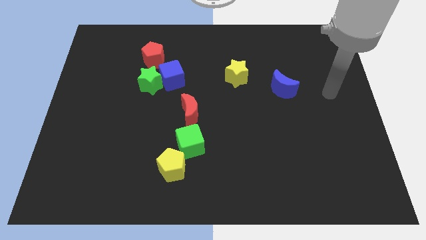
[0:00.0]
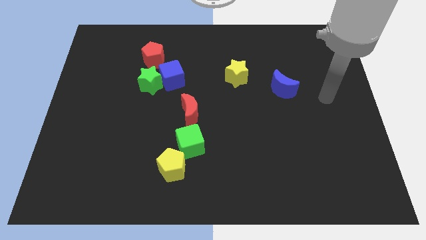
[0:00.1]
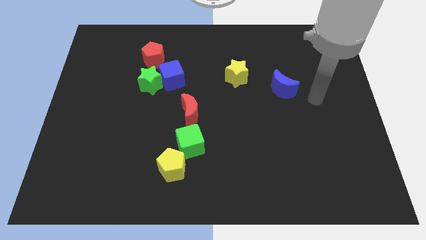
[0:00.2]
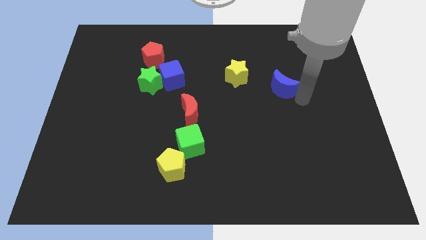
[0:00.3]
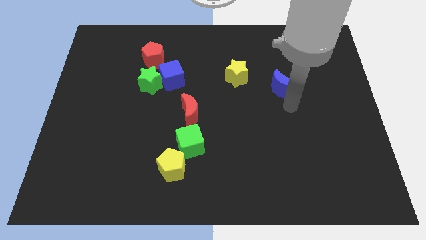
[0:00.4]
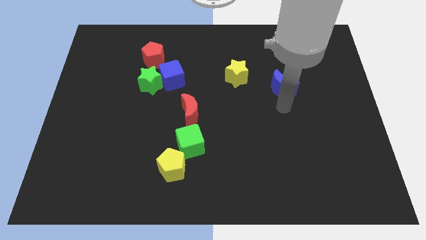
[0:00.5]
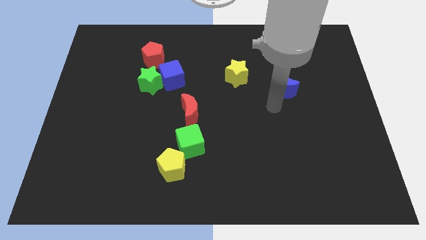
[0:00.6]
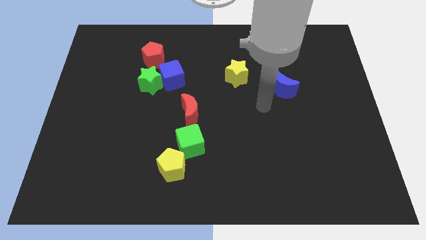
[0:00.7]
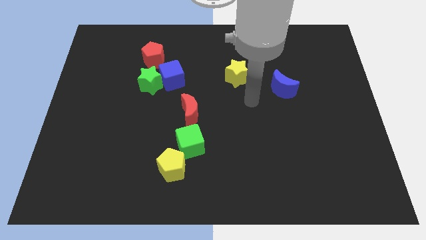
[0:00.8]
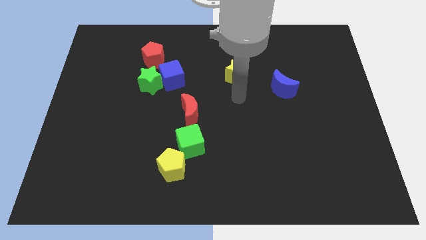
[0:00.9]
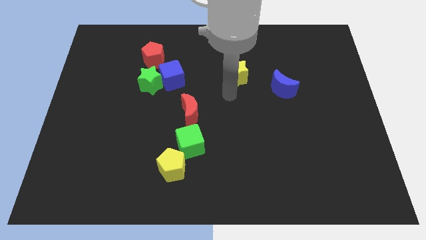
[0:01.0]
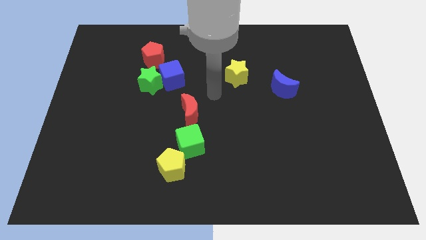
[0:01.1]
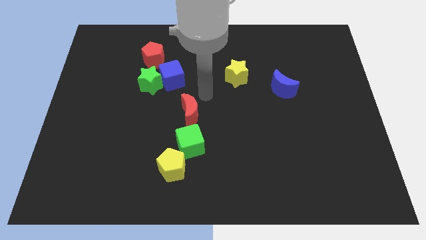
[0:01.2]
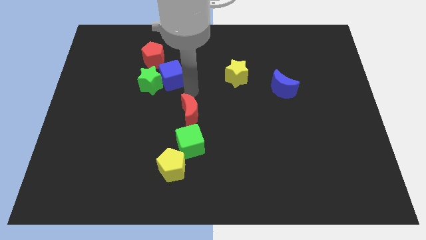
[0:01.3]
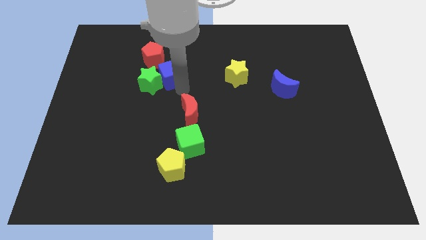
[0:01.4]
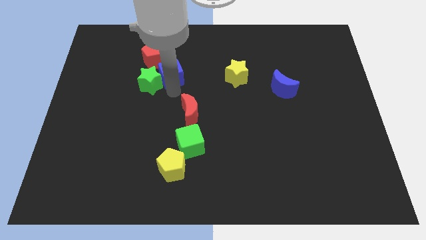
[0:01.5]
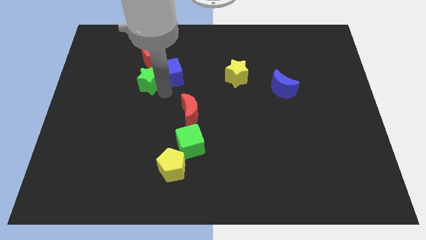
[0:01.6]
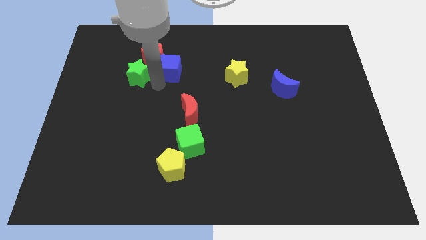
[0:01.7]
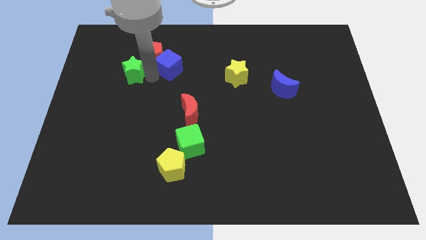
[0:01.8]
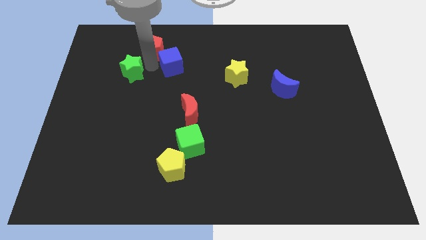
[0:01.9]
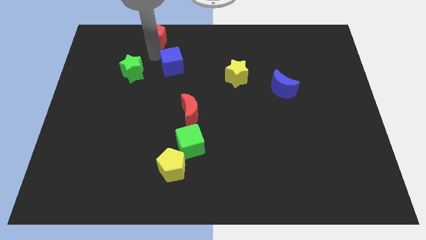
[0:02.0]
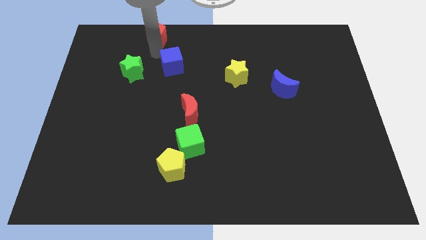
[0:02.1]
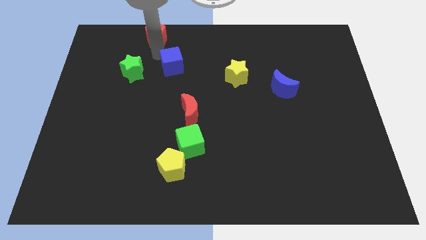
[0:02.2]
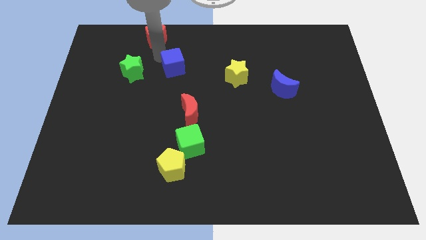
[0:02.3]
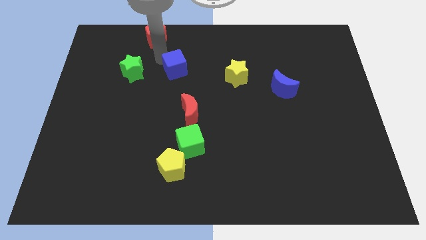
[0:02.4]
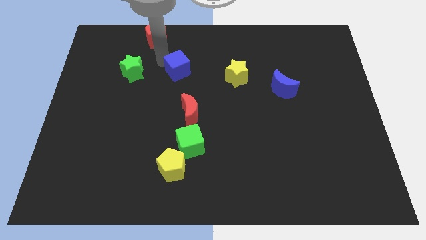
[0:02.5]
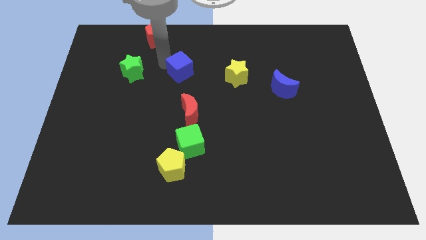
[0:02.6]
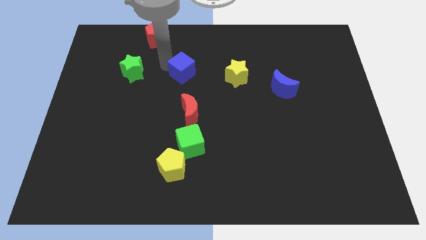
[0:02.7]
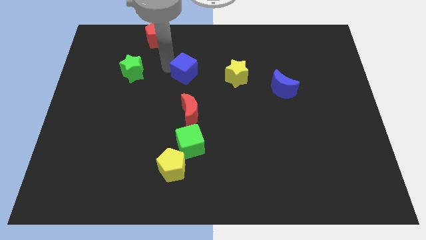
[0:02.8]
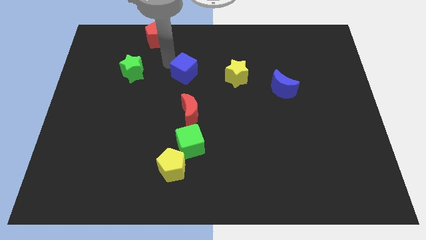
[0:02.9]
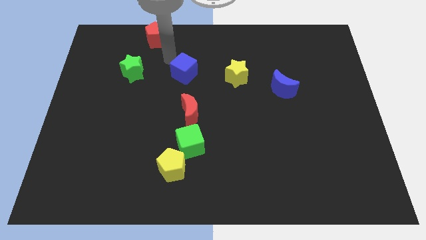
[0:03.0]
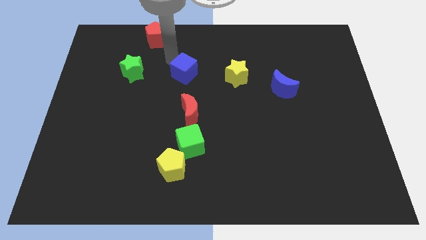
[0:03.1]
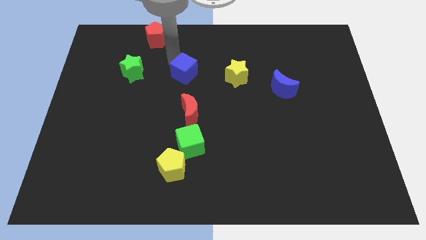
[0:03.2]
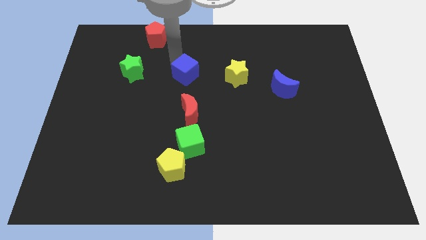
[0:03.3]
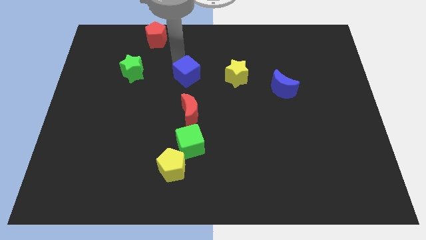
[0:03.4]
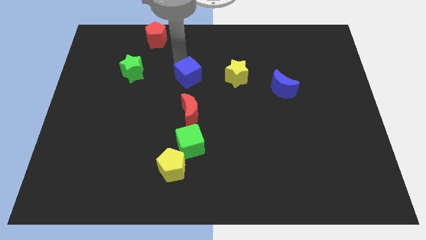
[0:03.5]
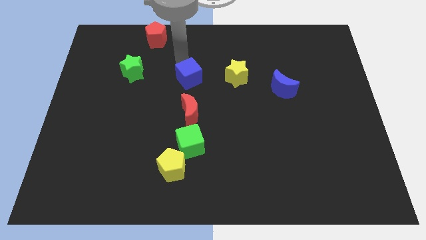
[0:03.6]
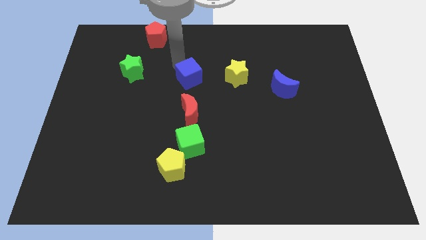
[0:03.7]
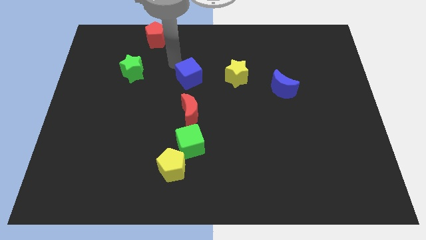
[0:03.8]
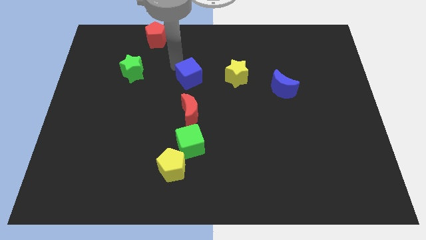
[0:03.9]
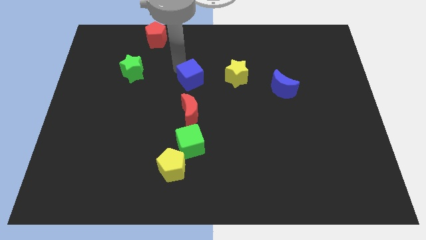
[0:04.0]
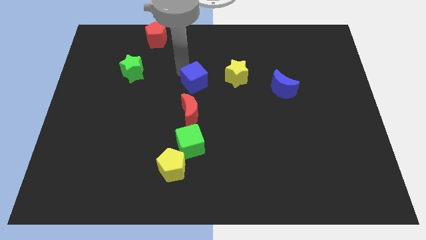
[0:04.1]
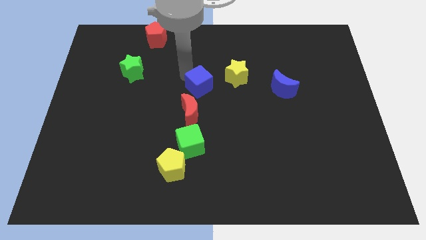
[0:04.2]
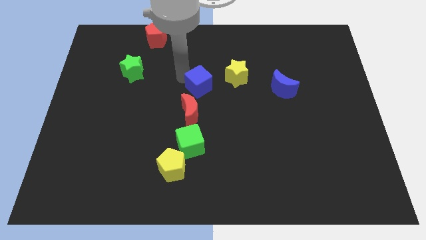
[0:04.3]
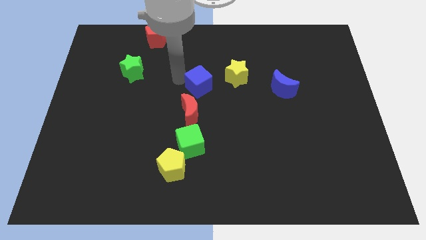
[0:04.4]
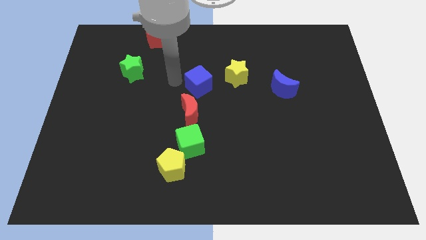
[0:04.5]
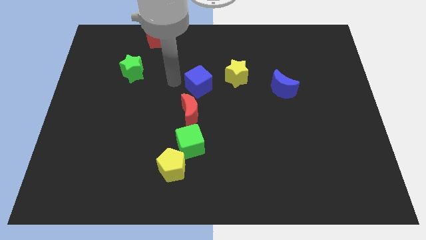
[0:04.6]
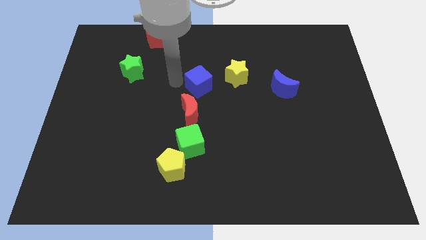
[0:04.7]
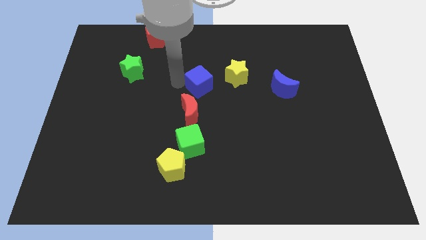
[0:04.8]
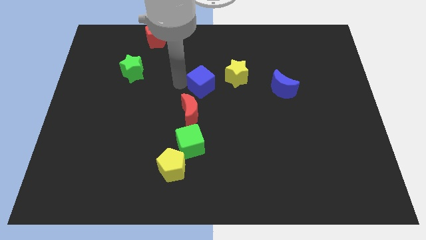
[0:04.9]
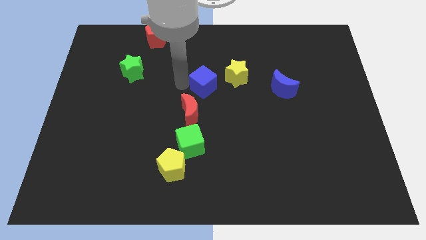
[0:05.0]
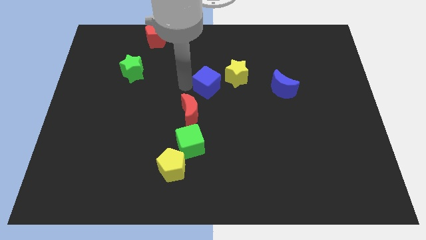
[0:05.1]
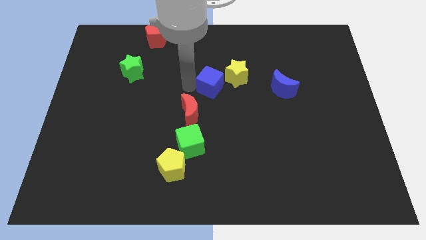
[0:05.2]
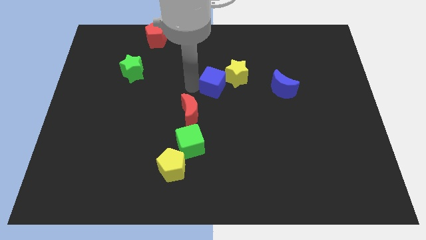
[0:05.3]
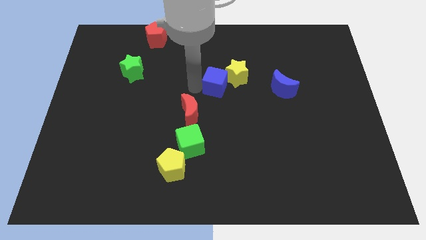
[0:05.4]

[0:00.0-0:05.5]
move the blue cube to the left of the blue moon

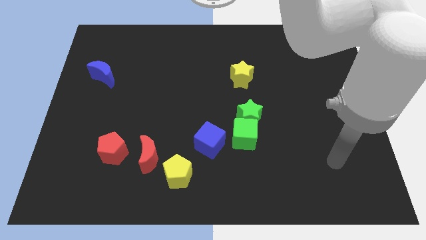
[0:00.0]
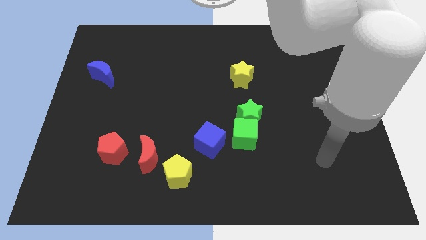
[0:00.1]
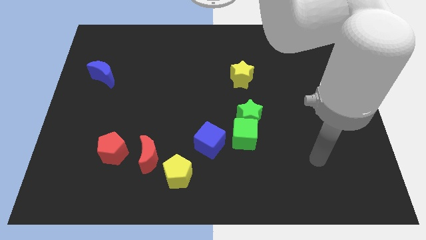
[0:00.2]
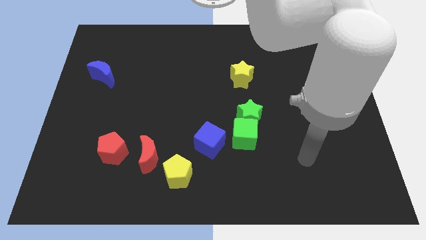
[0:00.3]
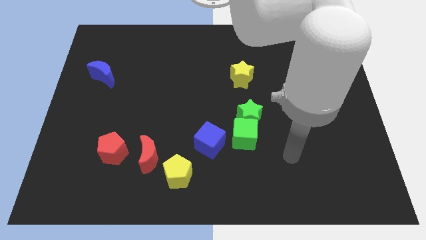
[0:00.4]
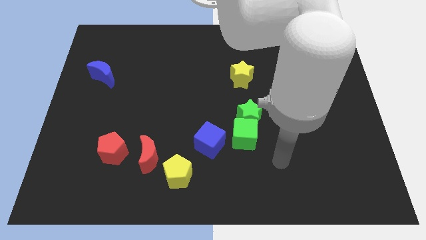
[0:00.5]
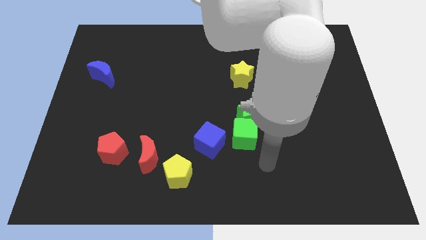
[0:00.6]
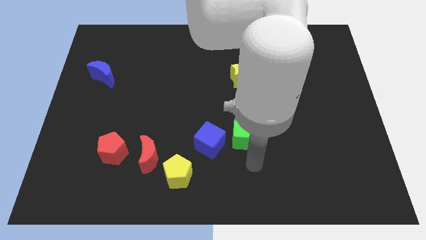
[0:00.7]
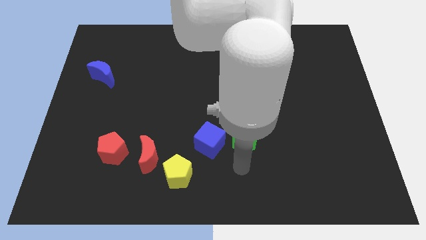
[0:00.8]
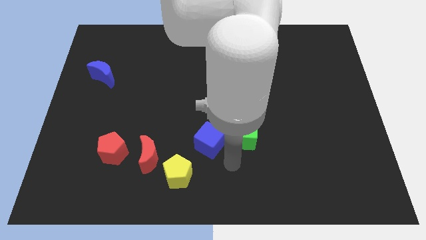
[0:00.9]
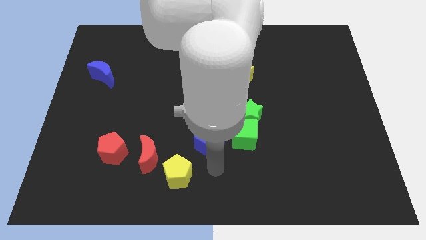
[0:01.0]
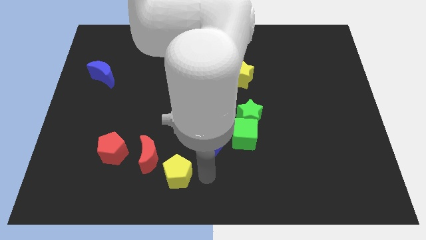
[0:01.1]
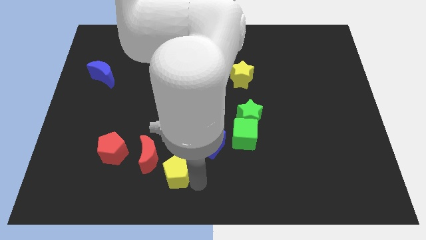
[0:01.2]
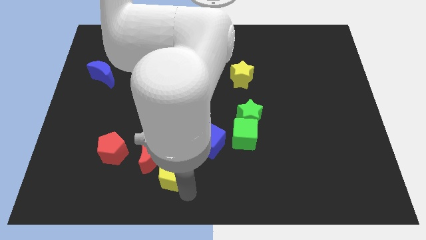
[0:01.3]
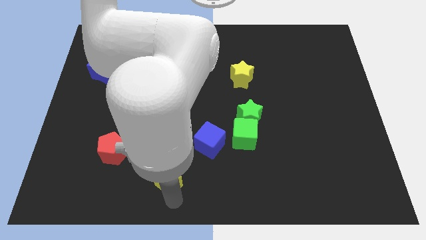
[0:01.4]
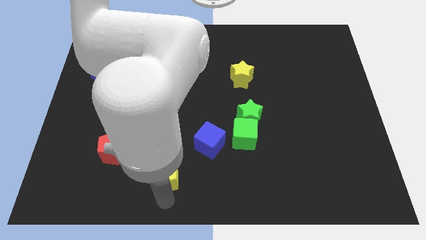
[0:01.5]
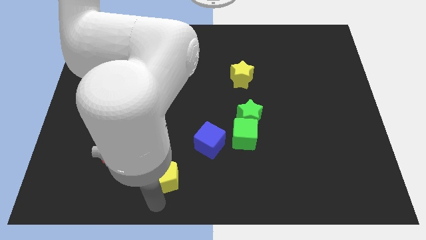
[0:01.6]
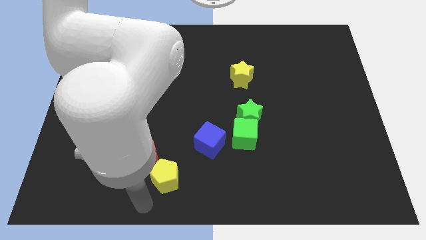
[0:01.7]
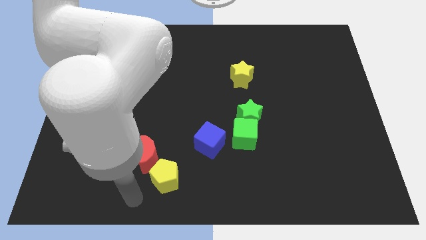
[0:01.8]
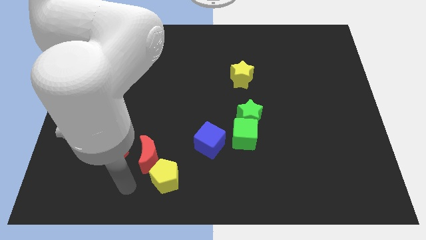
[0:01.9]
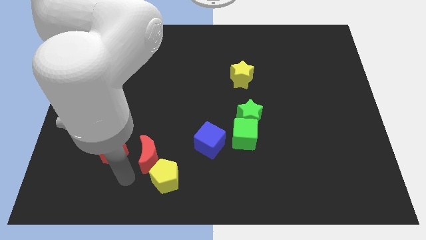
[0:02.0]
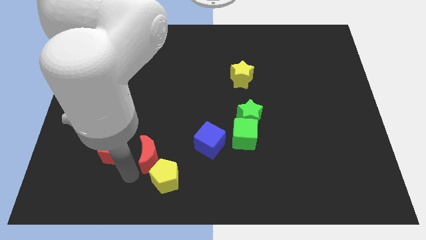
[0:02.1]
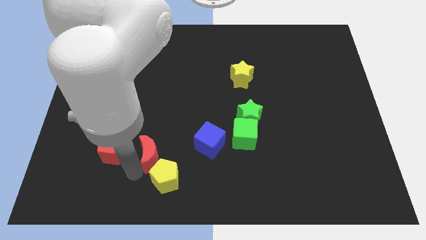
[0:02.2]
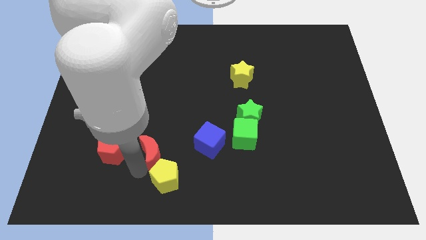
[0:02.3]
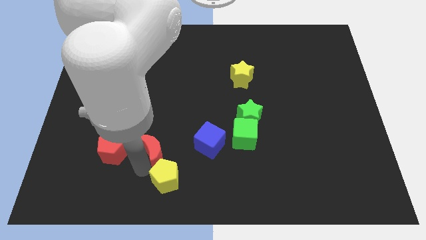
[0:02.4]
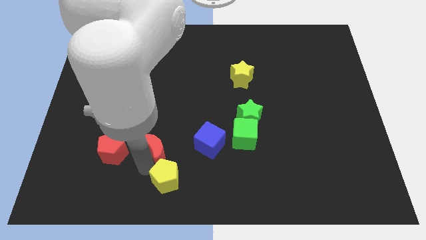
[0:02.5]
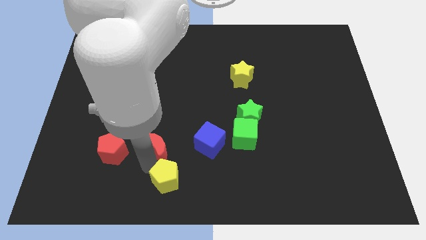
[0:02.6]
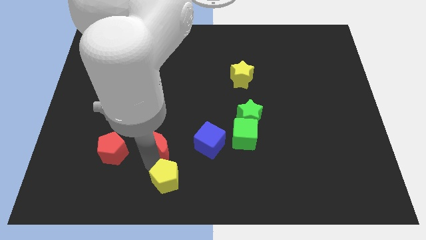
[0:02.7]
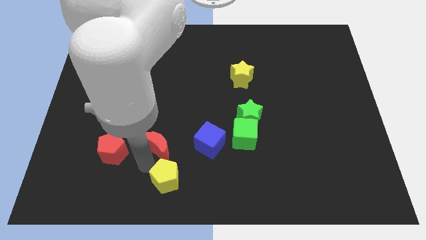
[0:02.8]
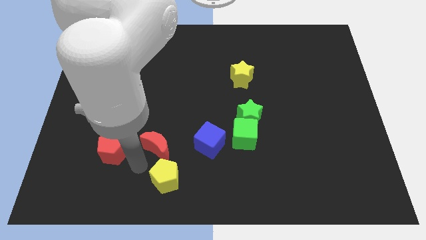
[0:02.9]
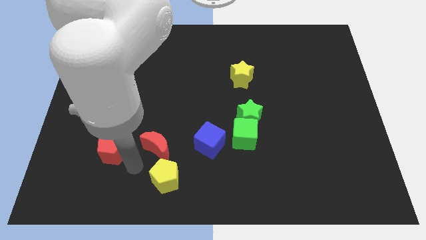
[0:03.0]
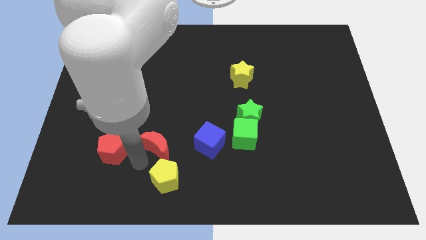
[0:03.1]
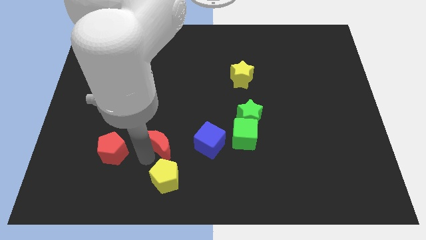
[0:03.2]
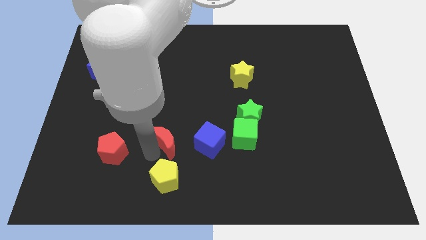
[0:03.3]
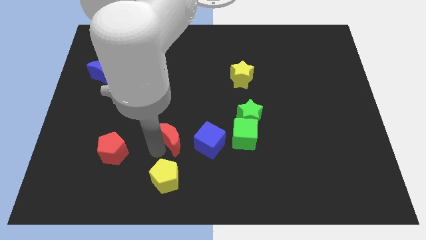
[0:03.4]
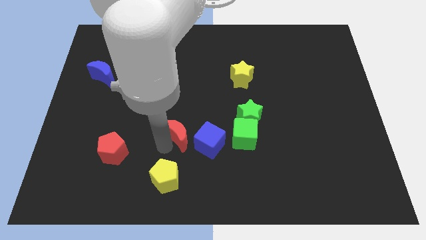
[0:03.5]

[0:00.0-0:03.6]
put the red moon to the top left side of the blue cube
